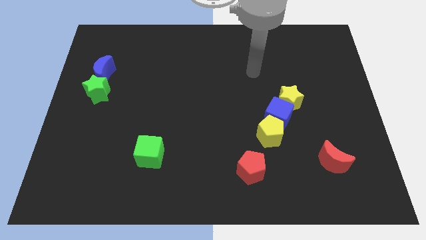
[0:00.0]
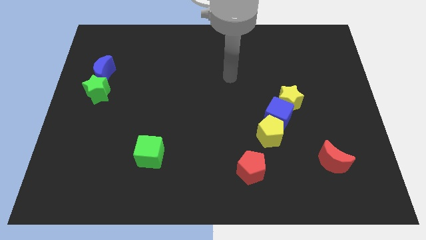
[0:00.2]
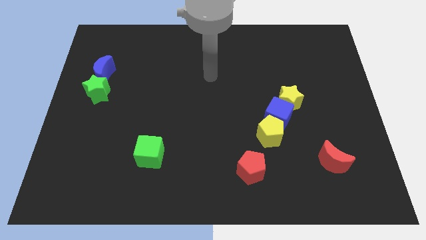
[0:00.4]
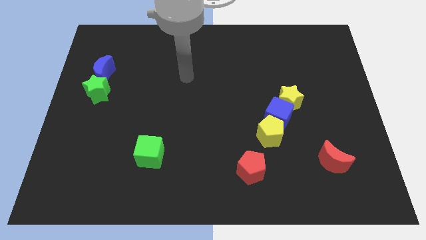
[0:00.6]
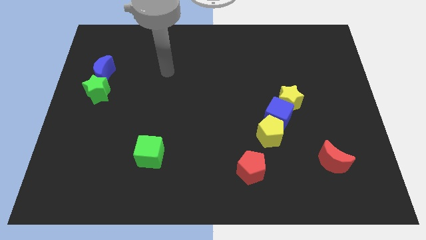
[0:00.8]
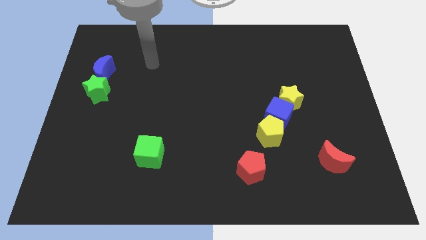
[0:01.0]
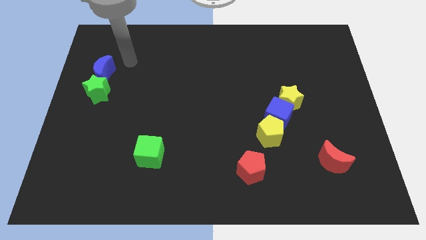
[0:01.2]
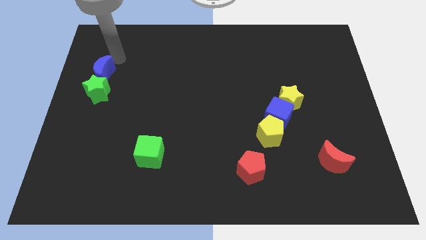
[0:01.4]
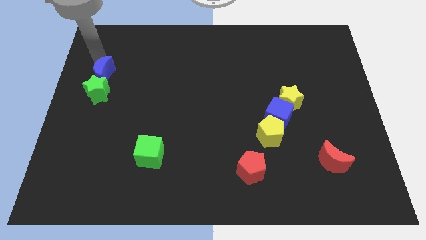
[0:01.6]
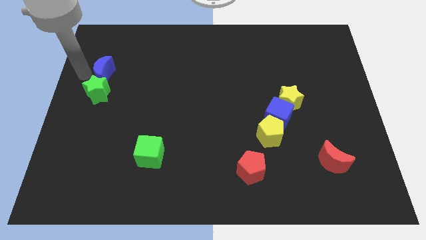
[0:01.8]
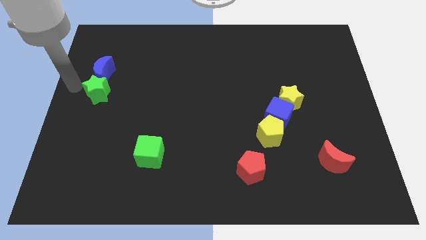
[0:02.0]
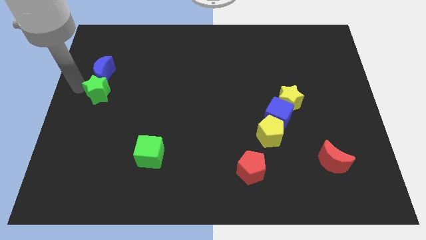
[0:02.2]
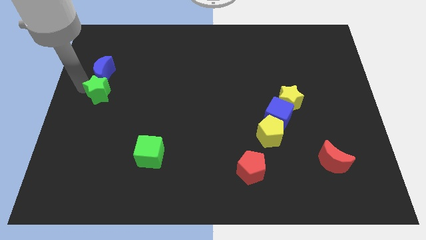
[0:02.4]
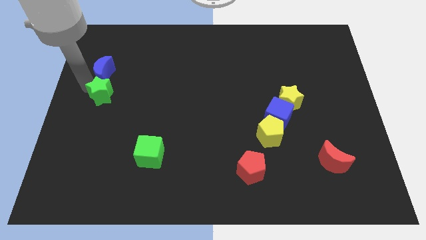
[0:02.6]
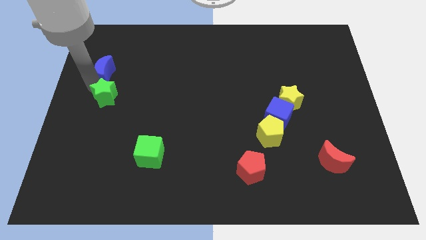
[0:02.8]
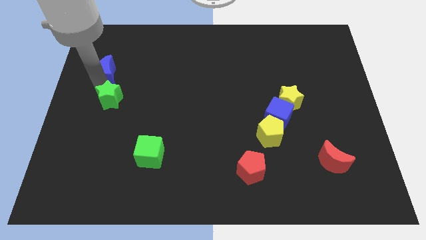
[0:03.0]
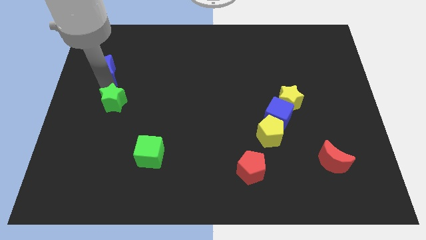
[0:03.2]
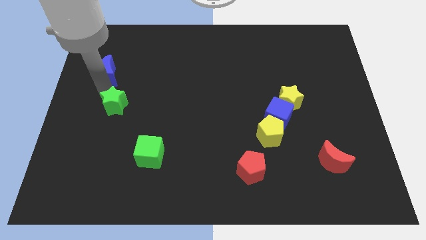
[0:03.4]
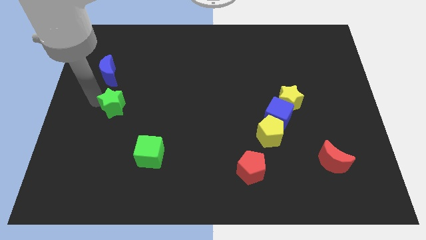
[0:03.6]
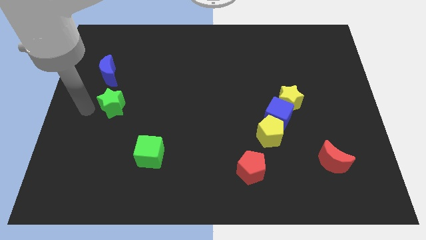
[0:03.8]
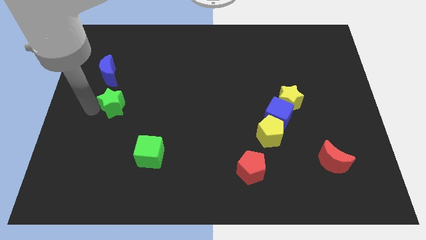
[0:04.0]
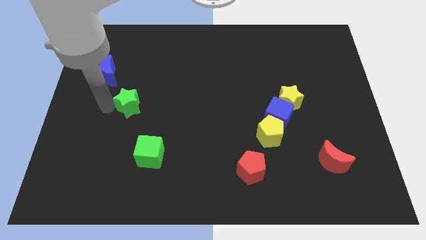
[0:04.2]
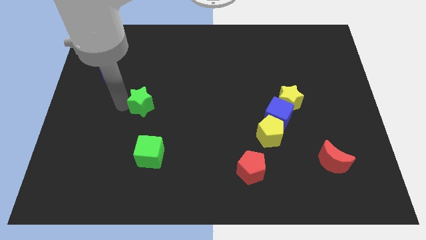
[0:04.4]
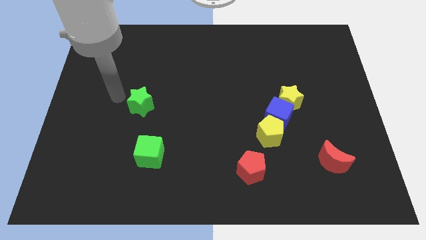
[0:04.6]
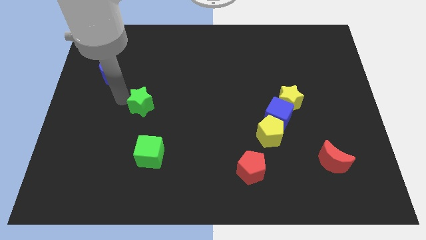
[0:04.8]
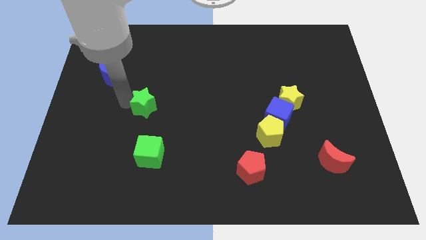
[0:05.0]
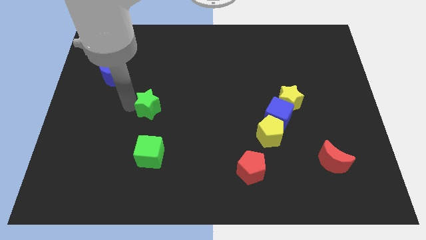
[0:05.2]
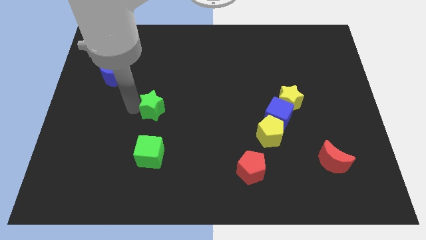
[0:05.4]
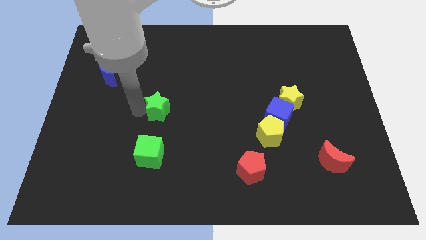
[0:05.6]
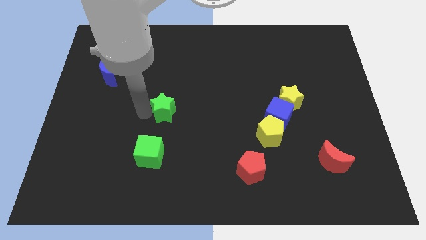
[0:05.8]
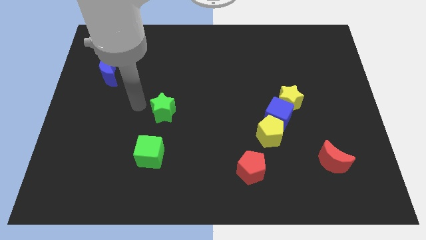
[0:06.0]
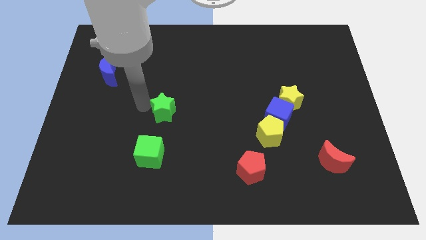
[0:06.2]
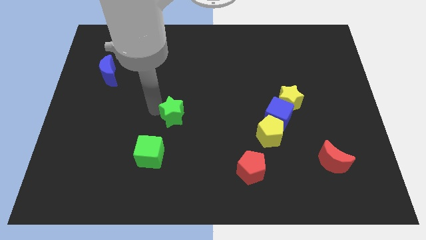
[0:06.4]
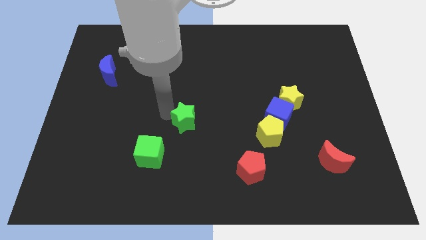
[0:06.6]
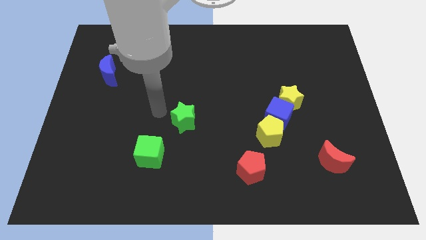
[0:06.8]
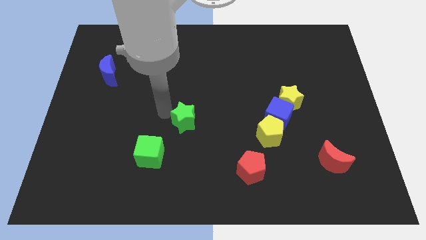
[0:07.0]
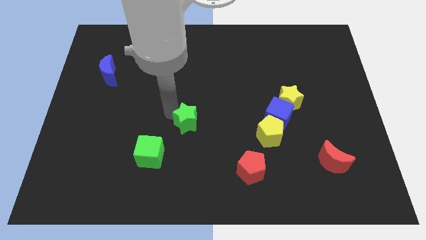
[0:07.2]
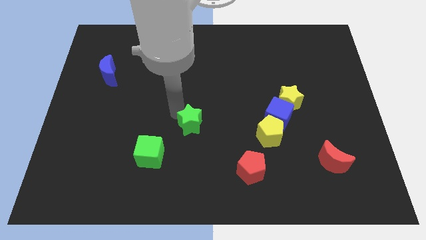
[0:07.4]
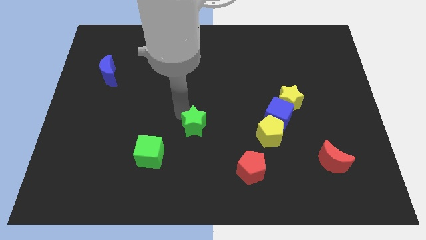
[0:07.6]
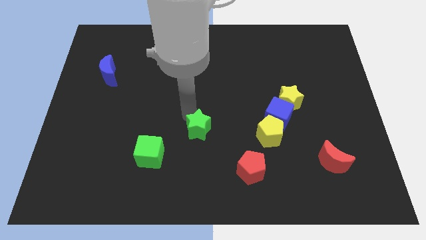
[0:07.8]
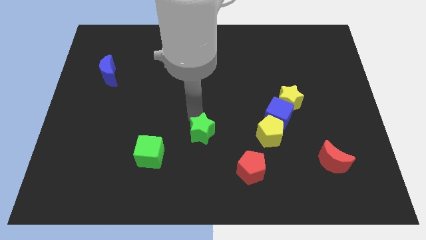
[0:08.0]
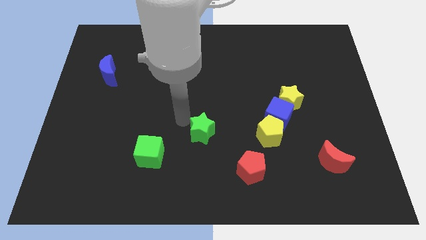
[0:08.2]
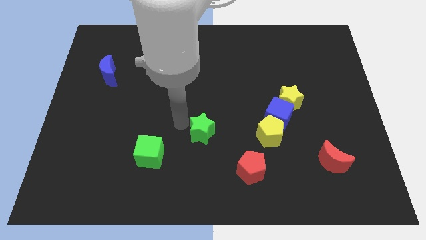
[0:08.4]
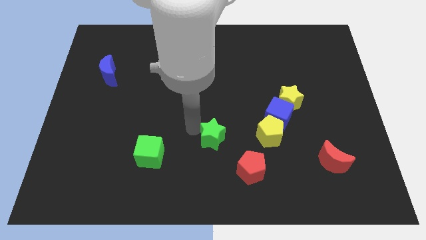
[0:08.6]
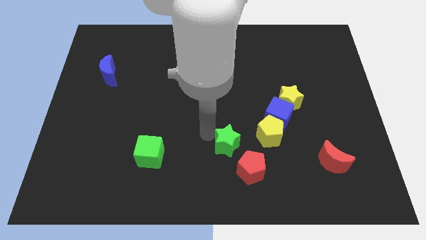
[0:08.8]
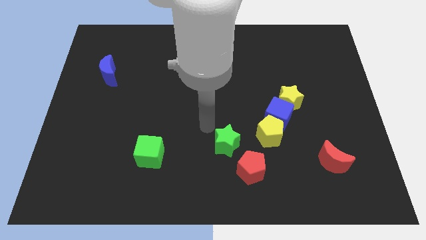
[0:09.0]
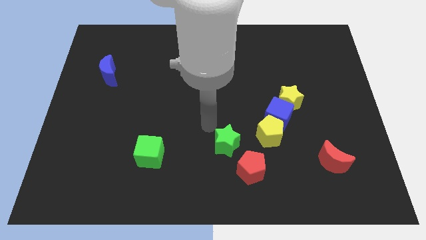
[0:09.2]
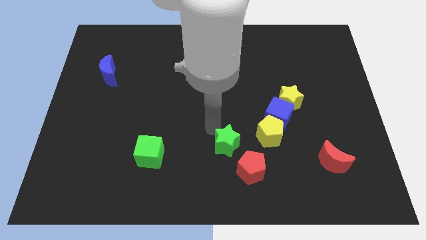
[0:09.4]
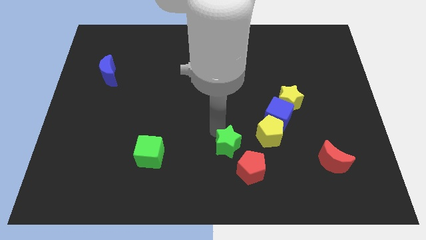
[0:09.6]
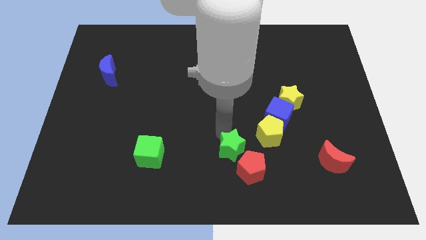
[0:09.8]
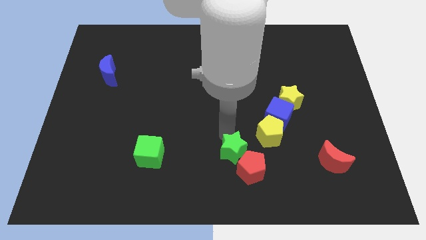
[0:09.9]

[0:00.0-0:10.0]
push the green star towards the red pentagon

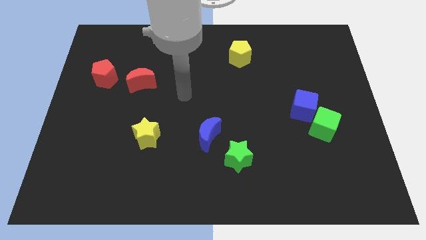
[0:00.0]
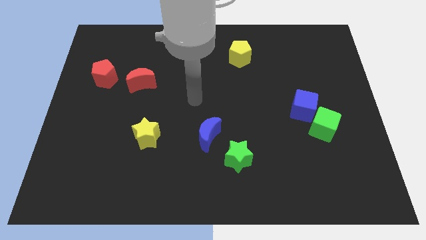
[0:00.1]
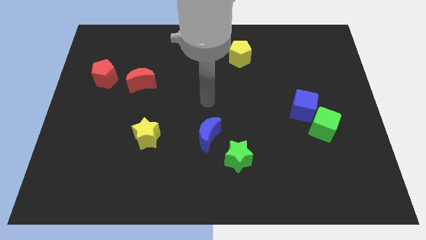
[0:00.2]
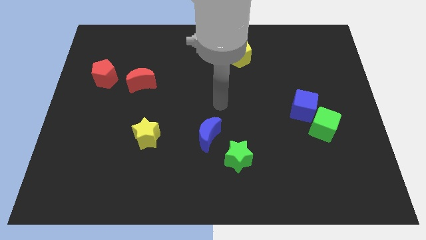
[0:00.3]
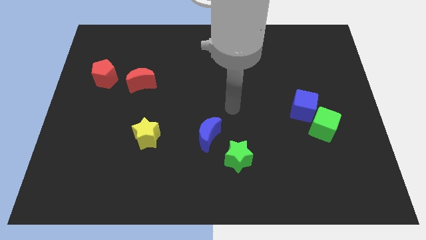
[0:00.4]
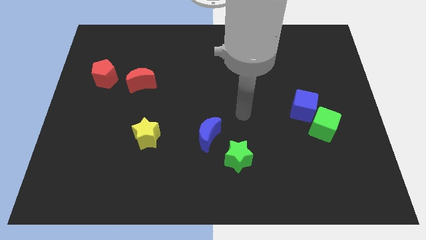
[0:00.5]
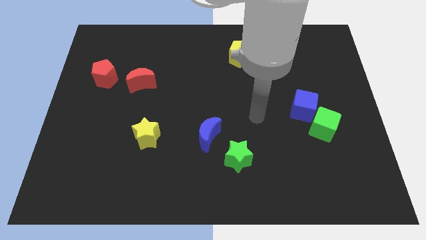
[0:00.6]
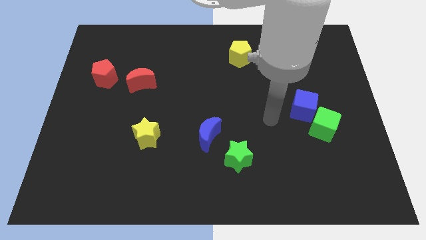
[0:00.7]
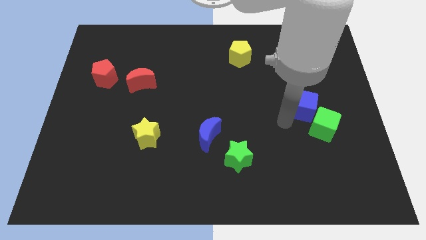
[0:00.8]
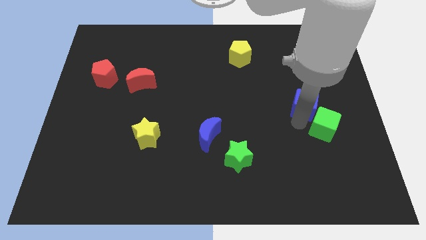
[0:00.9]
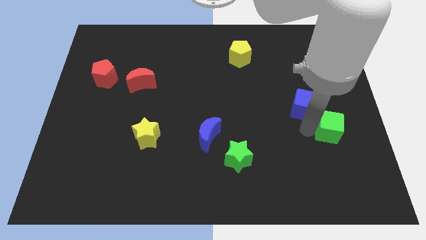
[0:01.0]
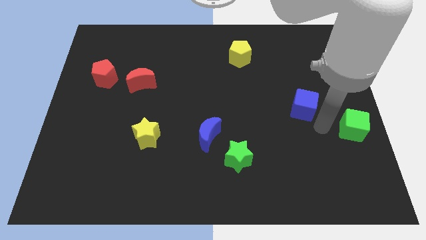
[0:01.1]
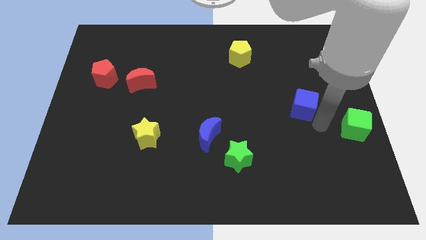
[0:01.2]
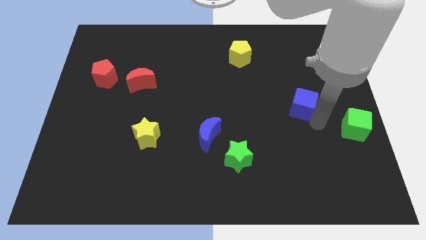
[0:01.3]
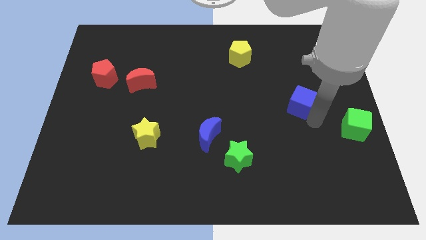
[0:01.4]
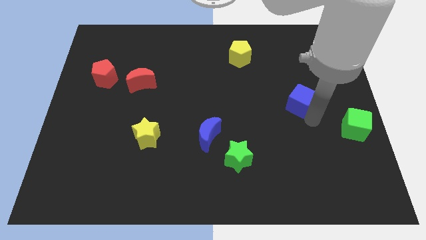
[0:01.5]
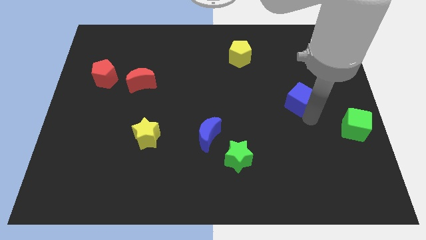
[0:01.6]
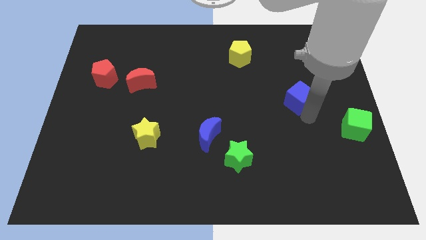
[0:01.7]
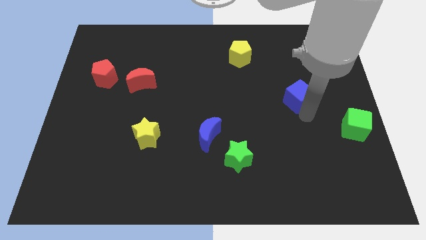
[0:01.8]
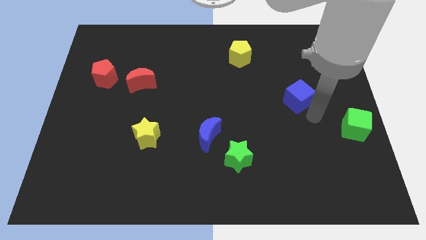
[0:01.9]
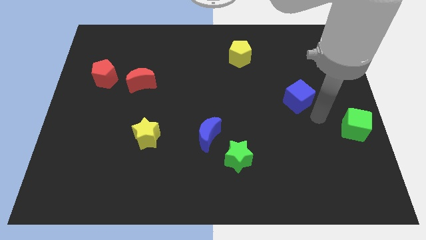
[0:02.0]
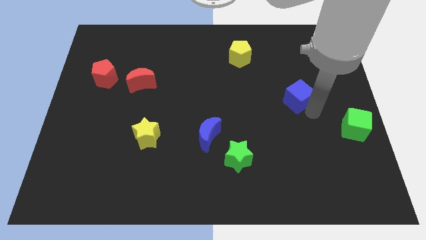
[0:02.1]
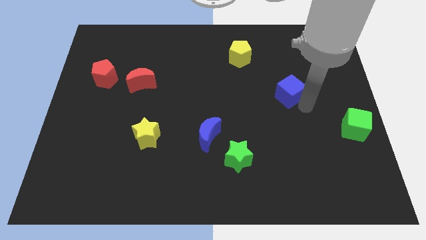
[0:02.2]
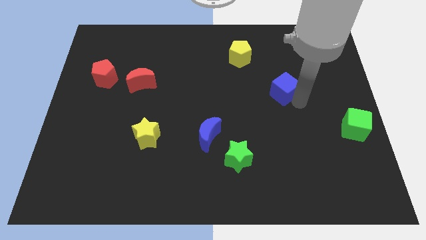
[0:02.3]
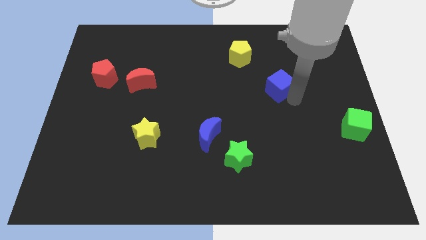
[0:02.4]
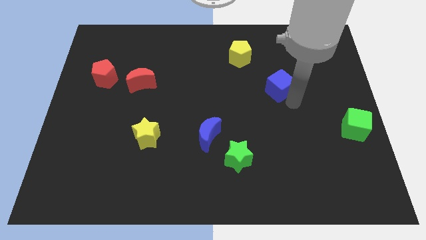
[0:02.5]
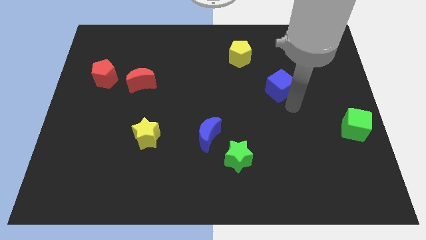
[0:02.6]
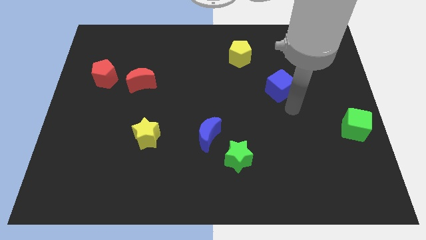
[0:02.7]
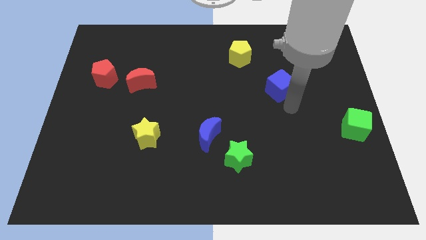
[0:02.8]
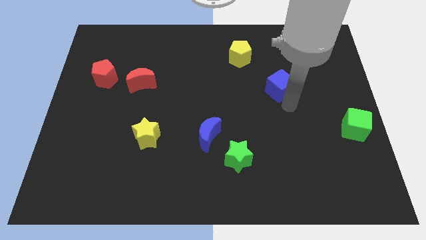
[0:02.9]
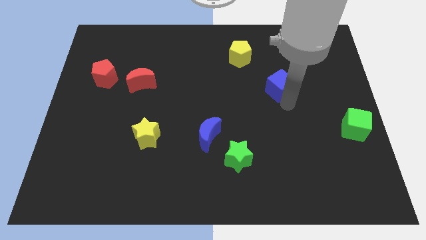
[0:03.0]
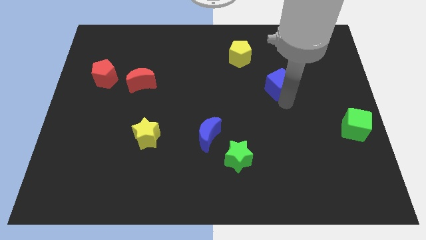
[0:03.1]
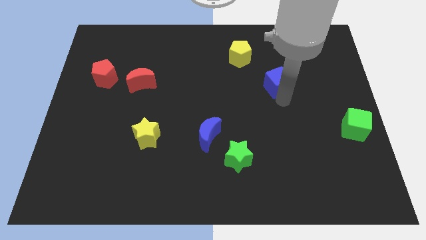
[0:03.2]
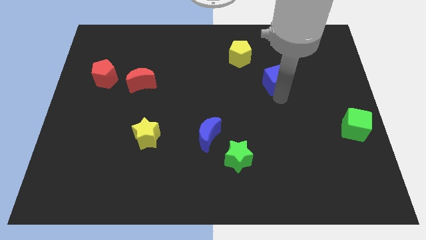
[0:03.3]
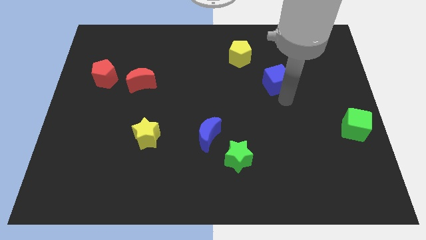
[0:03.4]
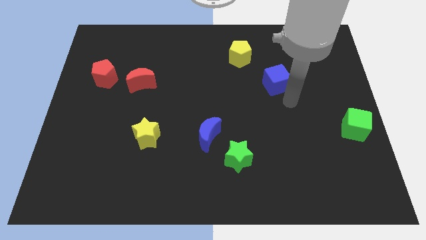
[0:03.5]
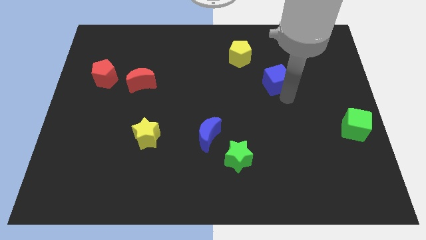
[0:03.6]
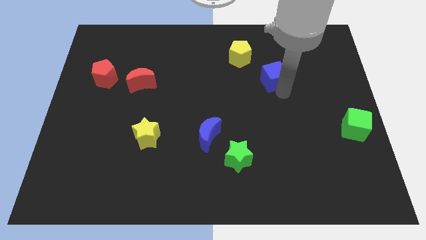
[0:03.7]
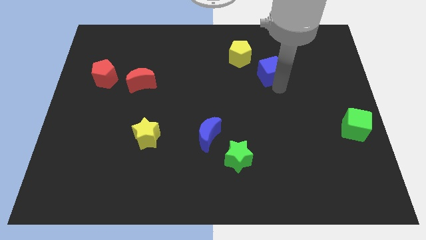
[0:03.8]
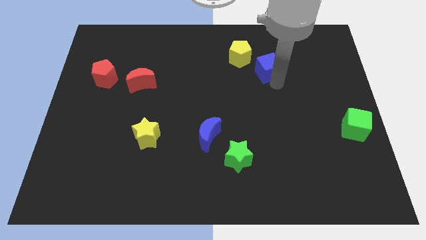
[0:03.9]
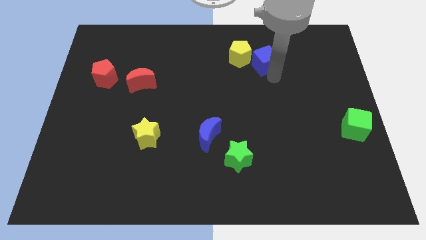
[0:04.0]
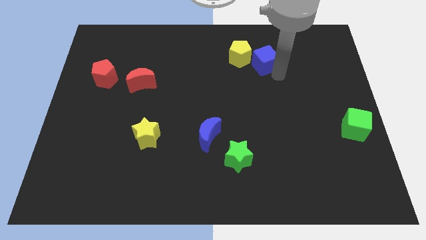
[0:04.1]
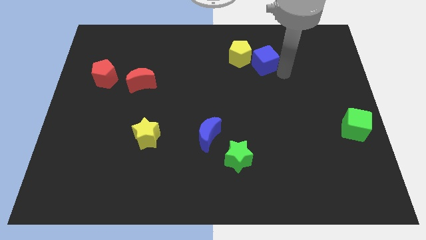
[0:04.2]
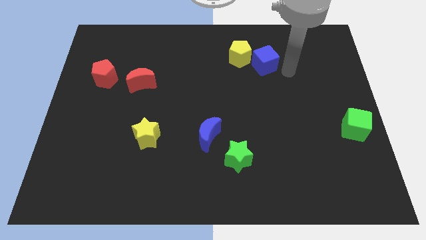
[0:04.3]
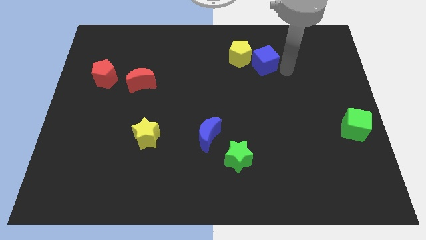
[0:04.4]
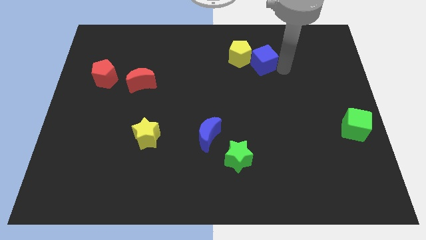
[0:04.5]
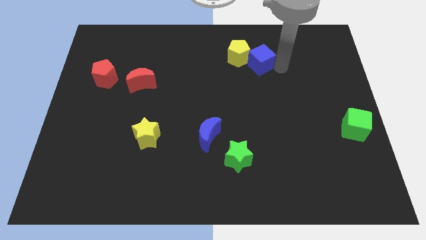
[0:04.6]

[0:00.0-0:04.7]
move the blue cube next to the yellow pentagon
